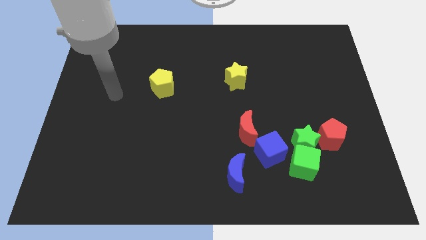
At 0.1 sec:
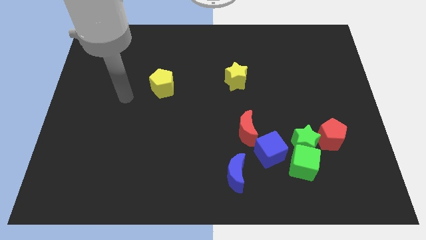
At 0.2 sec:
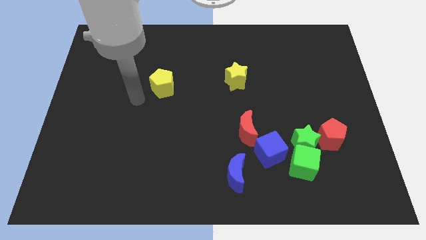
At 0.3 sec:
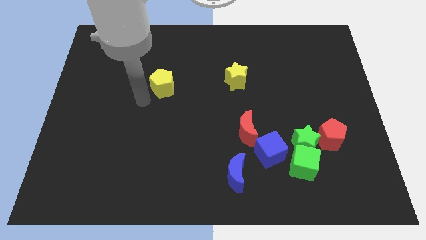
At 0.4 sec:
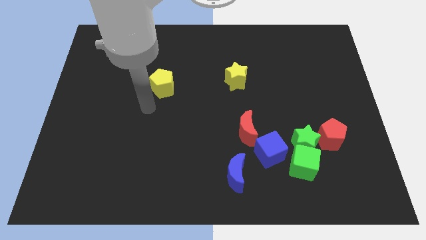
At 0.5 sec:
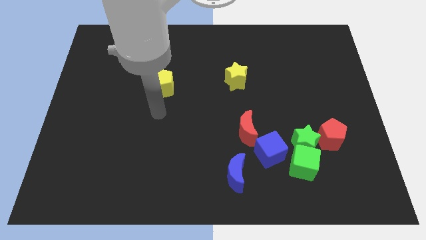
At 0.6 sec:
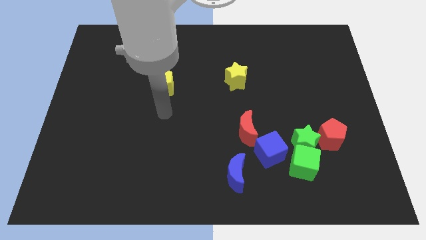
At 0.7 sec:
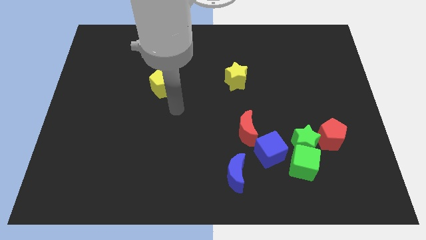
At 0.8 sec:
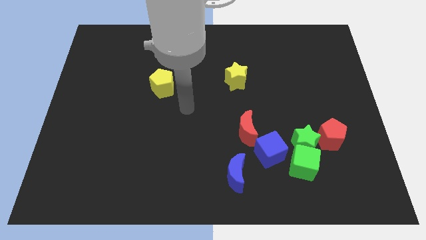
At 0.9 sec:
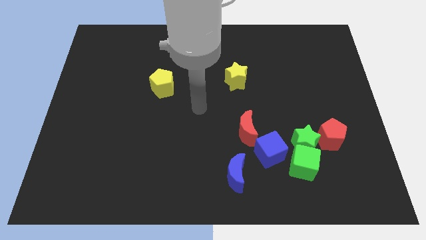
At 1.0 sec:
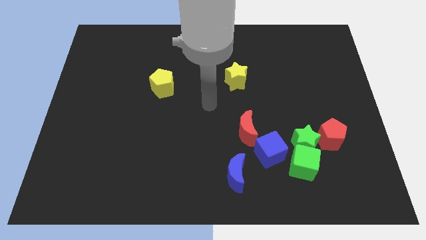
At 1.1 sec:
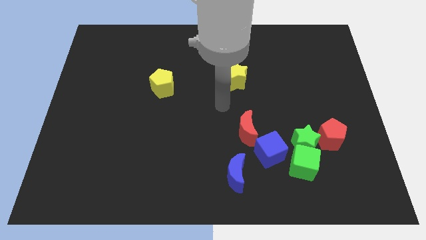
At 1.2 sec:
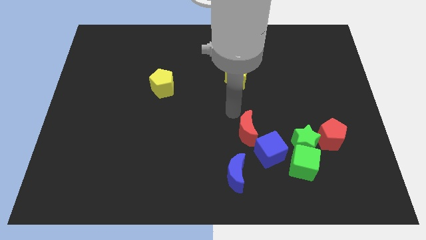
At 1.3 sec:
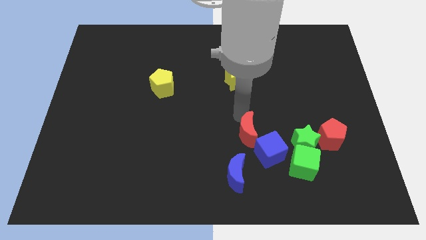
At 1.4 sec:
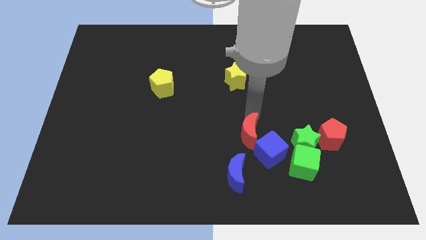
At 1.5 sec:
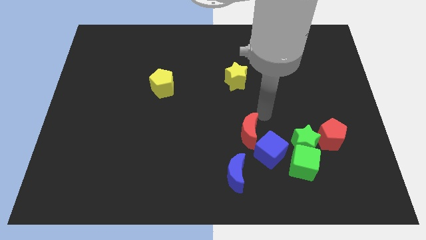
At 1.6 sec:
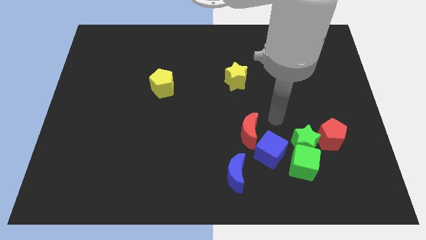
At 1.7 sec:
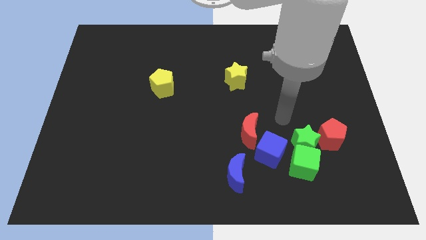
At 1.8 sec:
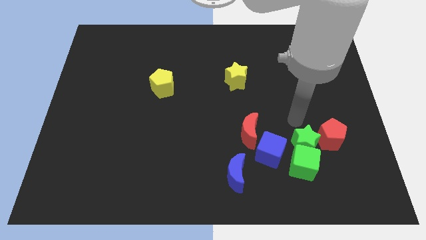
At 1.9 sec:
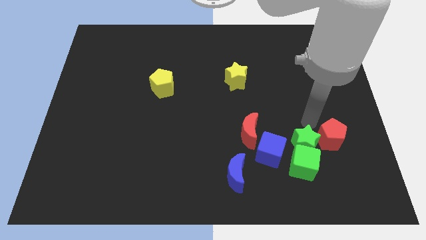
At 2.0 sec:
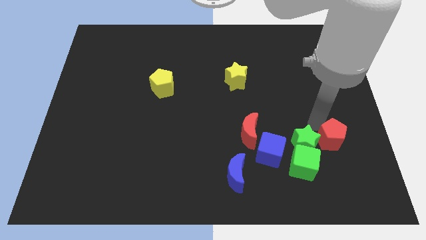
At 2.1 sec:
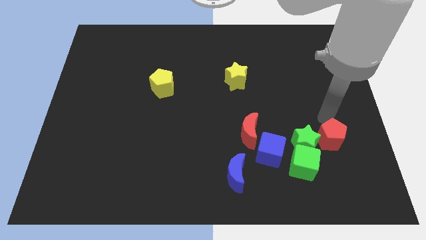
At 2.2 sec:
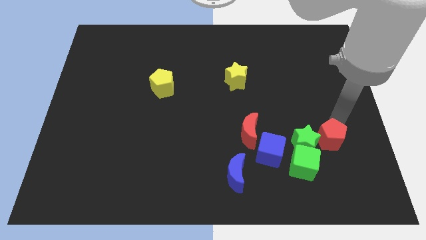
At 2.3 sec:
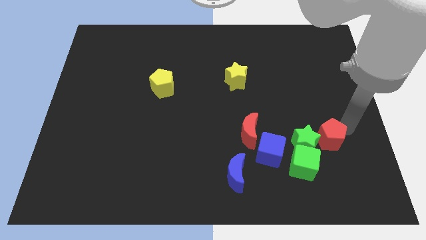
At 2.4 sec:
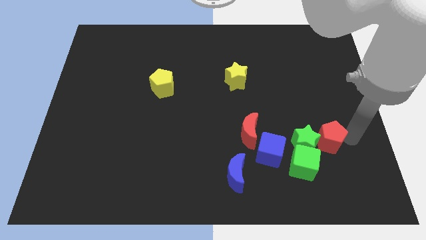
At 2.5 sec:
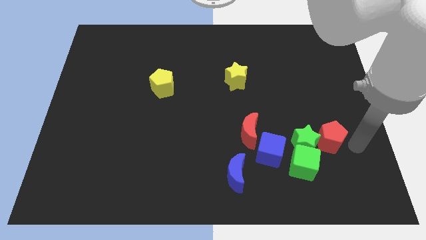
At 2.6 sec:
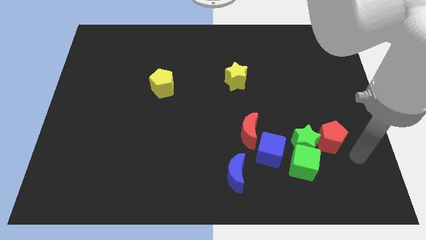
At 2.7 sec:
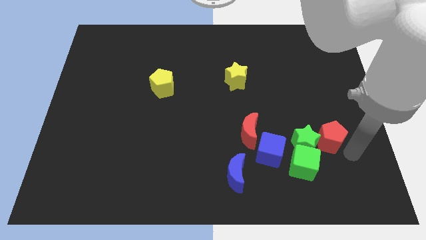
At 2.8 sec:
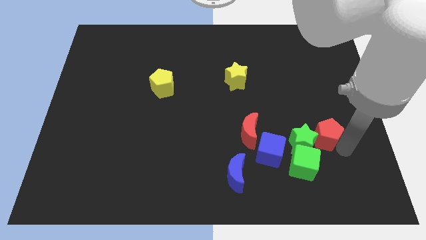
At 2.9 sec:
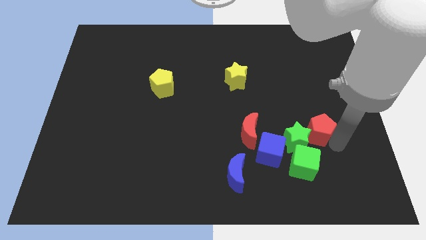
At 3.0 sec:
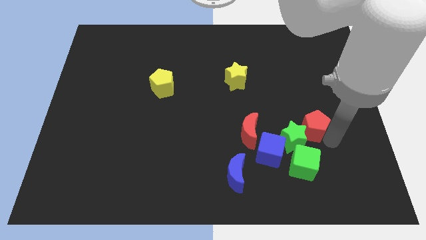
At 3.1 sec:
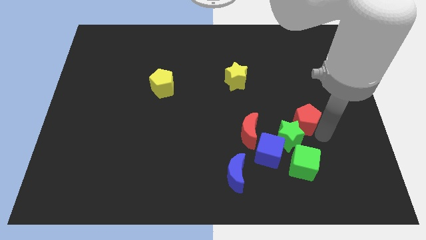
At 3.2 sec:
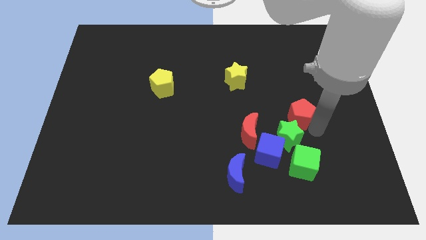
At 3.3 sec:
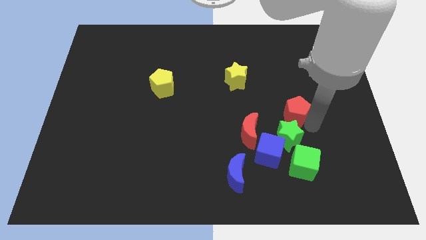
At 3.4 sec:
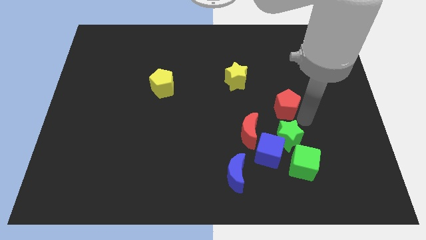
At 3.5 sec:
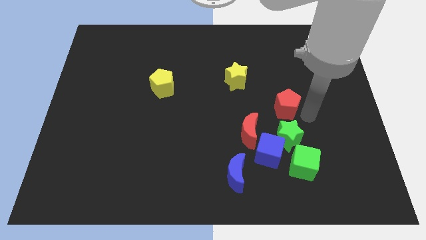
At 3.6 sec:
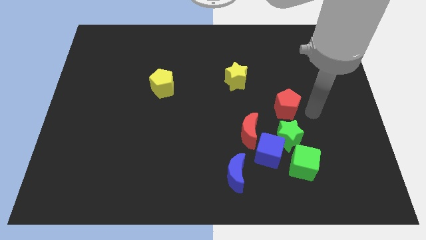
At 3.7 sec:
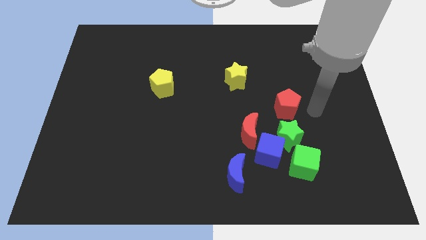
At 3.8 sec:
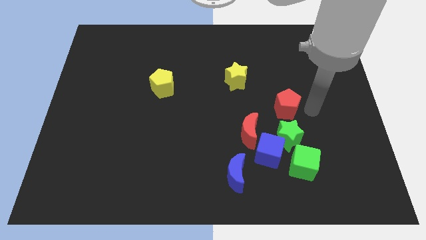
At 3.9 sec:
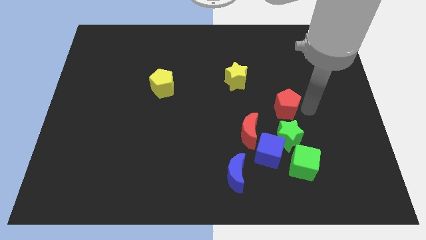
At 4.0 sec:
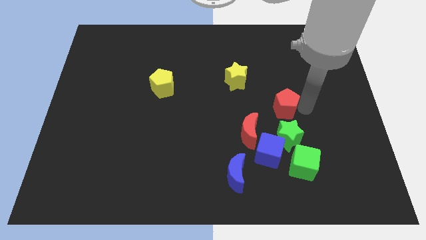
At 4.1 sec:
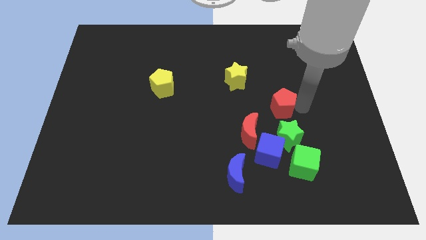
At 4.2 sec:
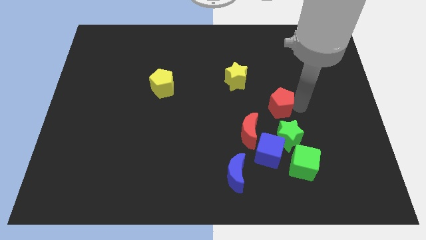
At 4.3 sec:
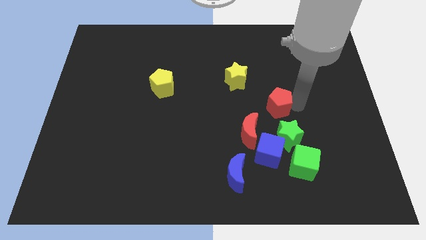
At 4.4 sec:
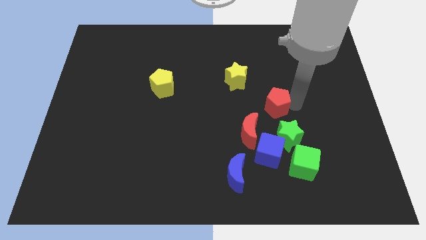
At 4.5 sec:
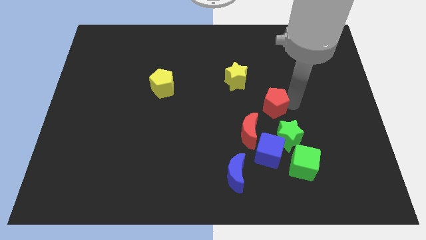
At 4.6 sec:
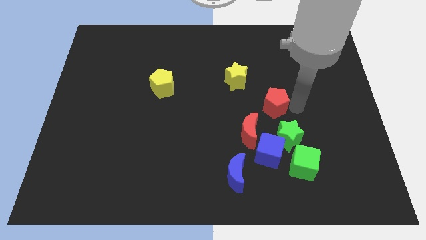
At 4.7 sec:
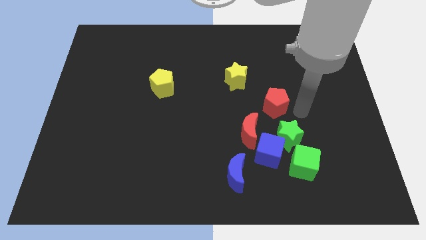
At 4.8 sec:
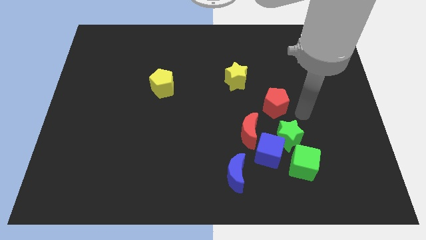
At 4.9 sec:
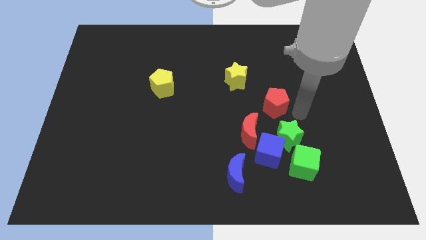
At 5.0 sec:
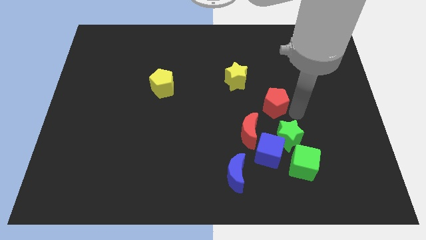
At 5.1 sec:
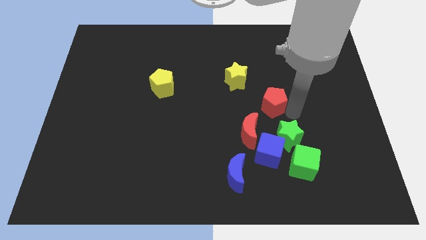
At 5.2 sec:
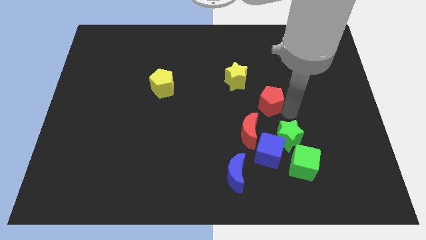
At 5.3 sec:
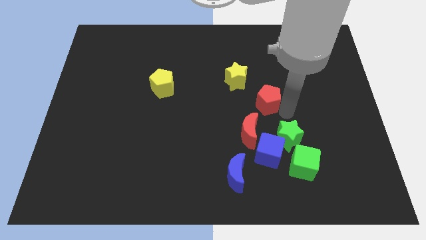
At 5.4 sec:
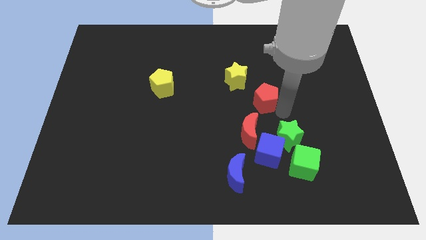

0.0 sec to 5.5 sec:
slide the red pentagon to the top side of the red moon

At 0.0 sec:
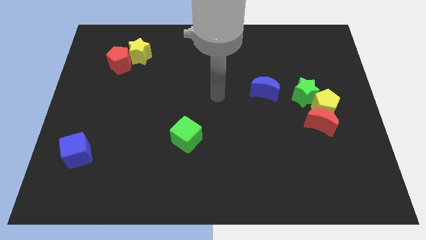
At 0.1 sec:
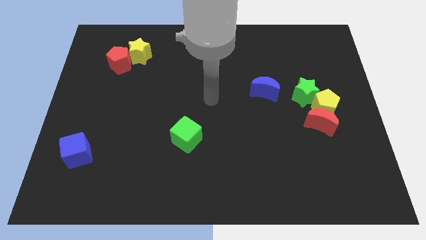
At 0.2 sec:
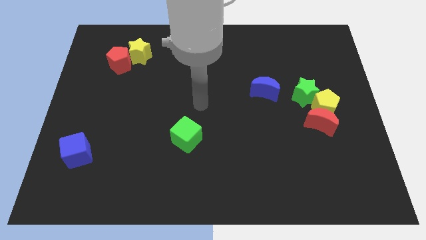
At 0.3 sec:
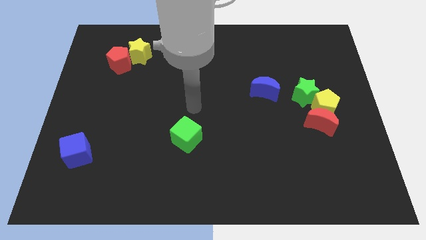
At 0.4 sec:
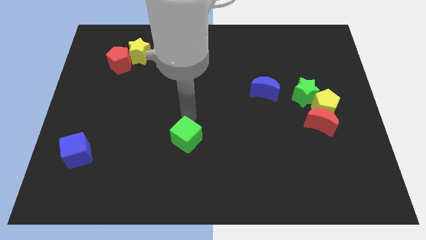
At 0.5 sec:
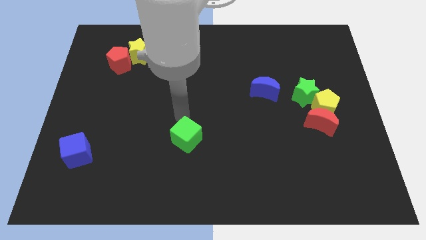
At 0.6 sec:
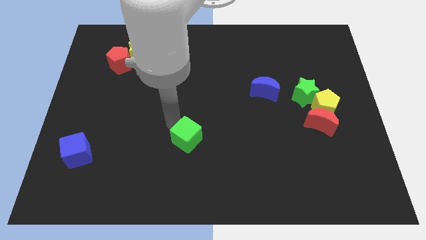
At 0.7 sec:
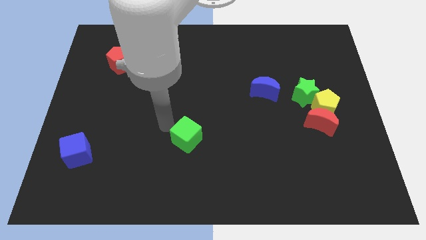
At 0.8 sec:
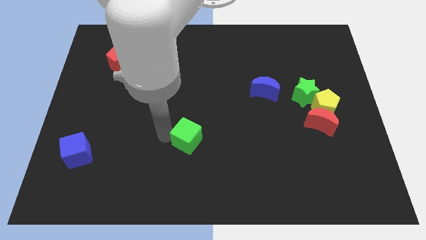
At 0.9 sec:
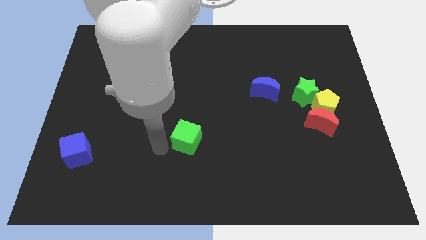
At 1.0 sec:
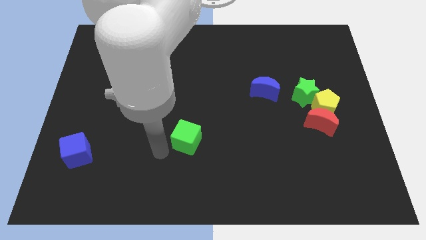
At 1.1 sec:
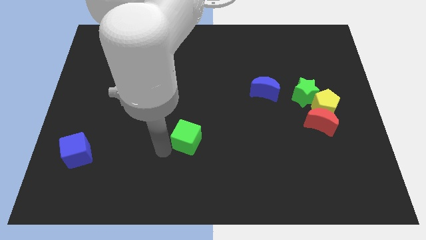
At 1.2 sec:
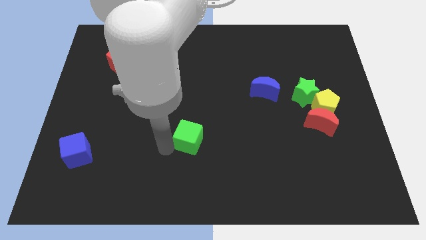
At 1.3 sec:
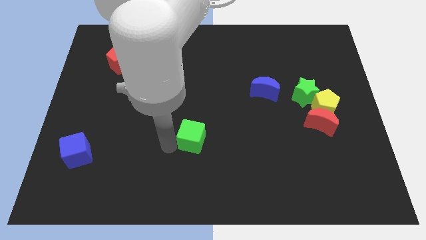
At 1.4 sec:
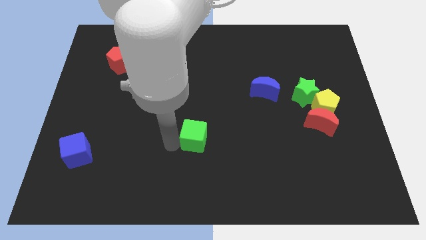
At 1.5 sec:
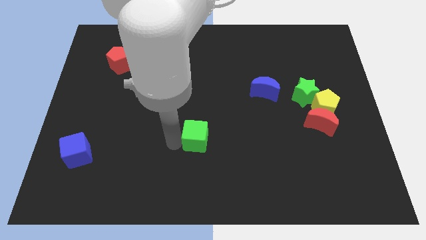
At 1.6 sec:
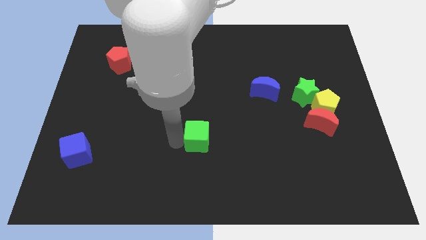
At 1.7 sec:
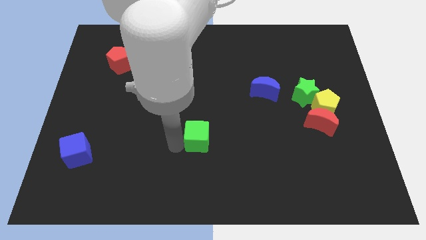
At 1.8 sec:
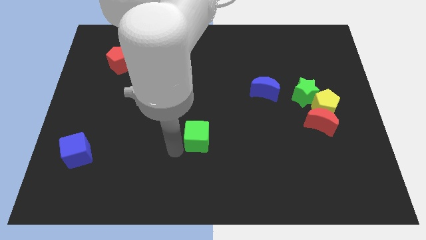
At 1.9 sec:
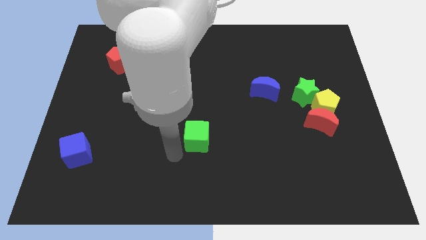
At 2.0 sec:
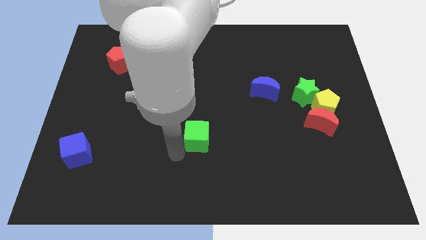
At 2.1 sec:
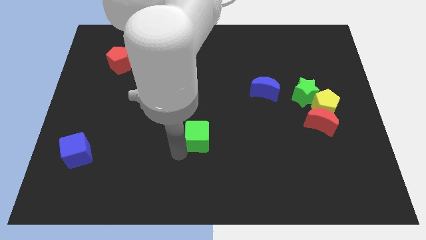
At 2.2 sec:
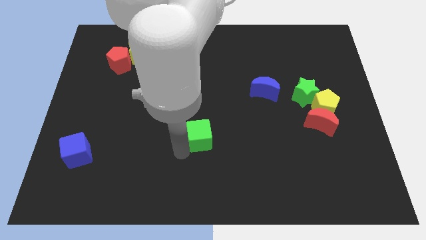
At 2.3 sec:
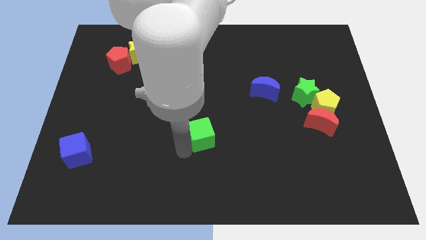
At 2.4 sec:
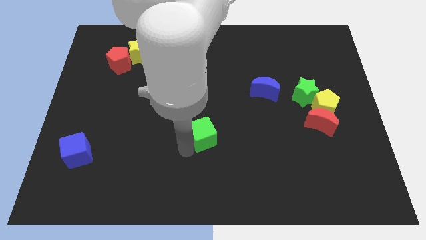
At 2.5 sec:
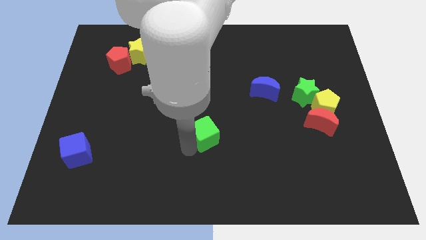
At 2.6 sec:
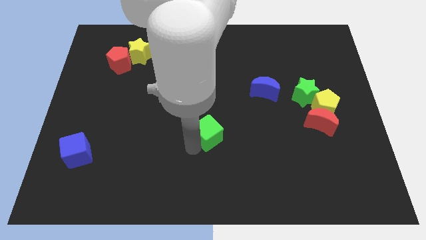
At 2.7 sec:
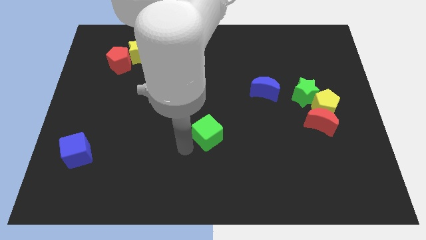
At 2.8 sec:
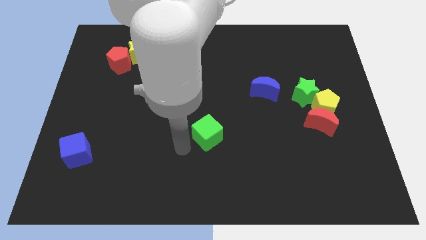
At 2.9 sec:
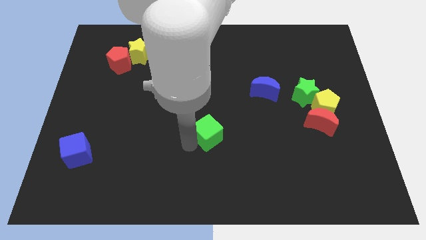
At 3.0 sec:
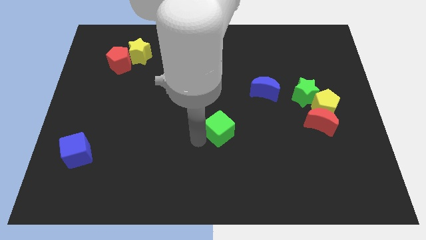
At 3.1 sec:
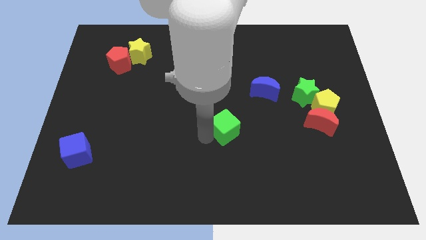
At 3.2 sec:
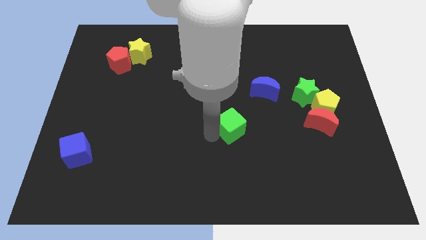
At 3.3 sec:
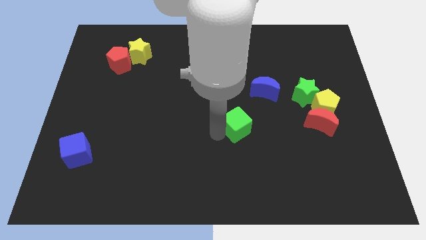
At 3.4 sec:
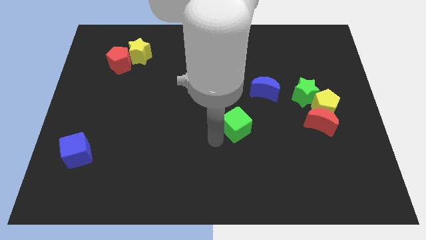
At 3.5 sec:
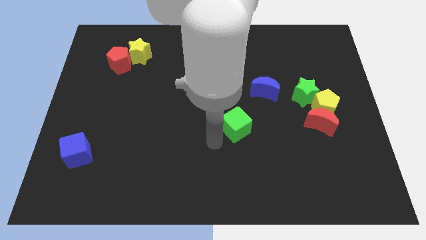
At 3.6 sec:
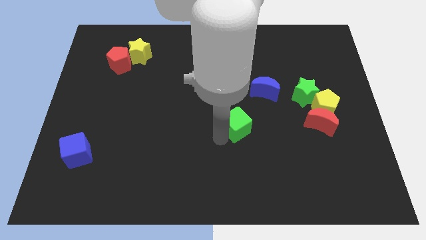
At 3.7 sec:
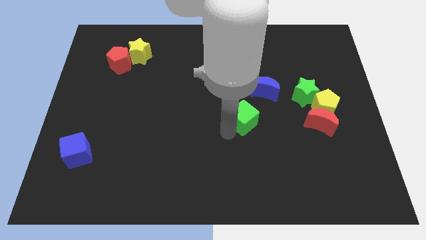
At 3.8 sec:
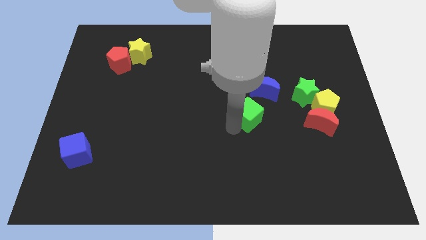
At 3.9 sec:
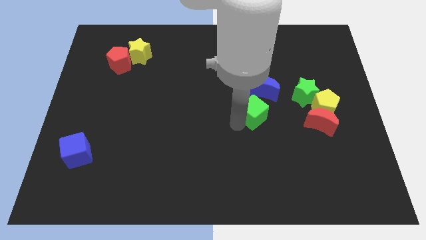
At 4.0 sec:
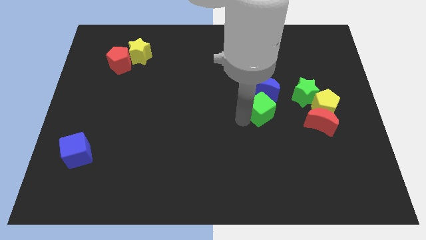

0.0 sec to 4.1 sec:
move the green cube to the left of the yellow pentagon
